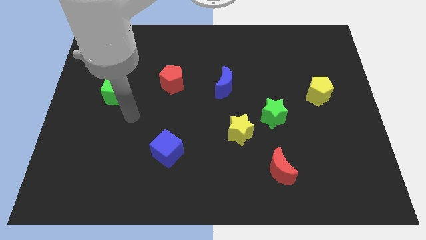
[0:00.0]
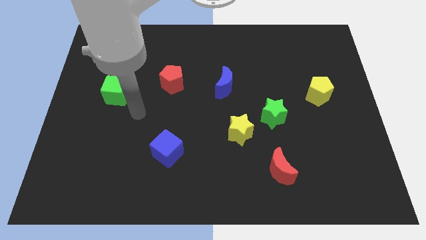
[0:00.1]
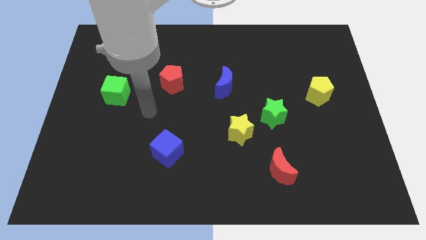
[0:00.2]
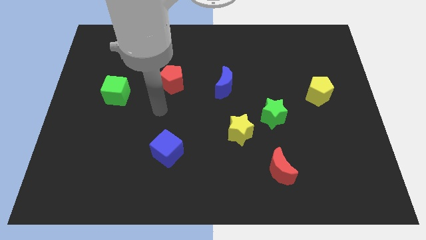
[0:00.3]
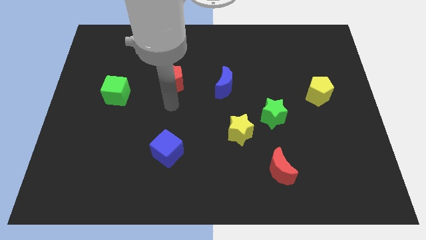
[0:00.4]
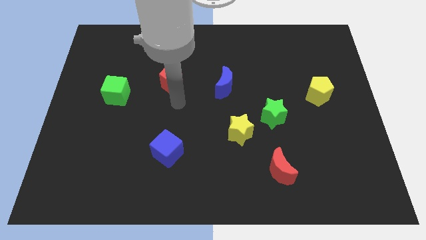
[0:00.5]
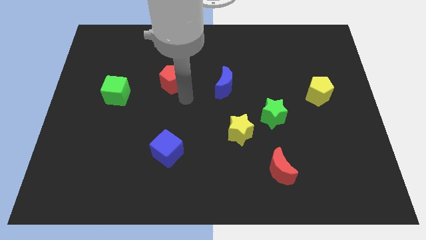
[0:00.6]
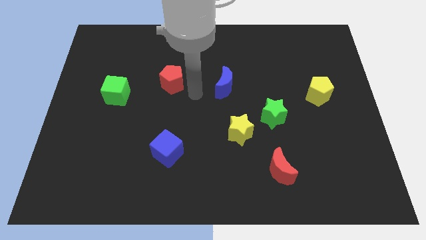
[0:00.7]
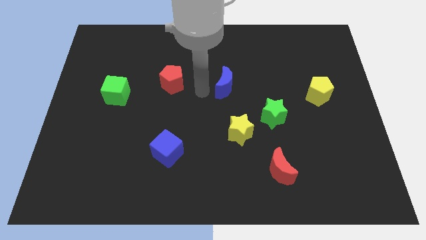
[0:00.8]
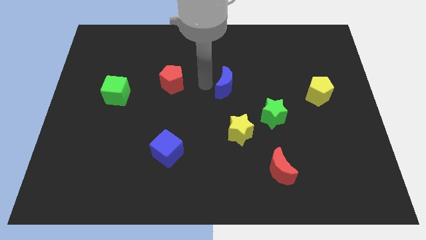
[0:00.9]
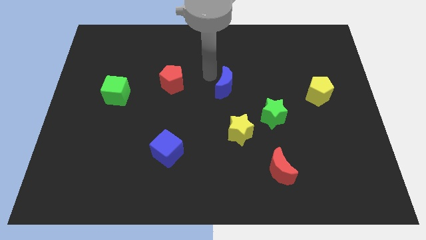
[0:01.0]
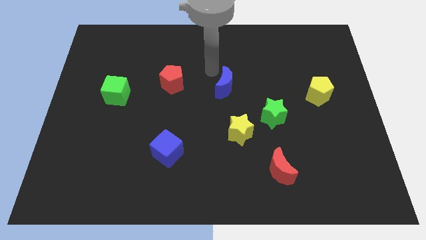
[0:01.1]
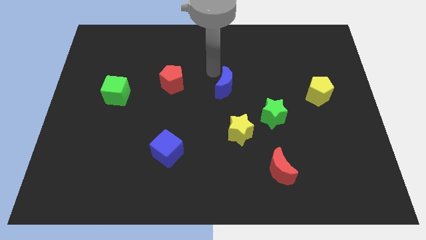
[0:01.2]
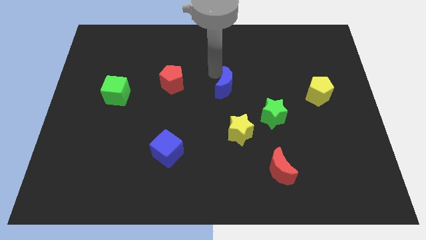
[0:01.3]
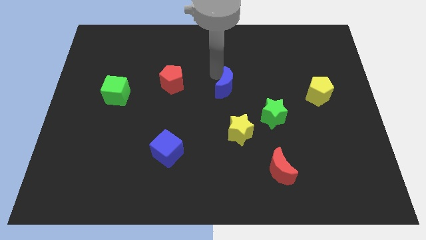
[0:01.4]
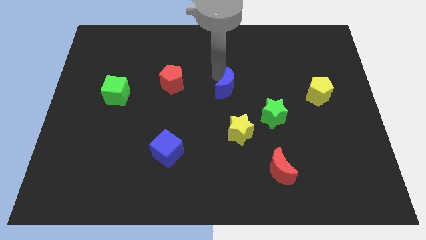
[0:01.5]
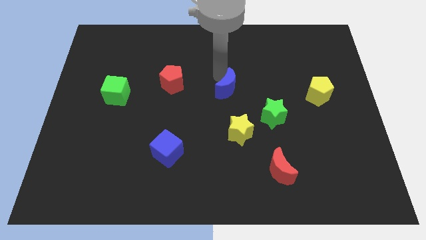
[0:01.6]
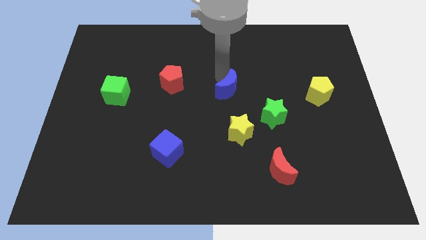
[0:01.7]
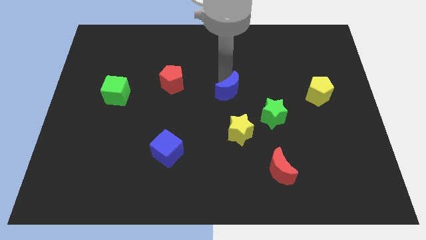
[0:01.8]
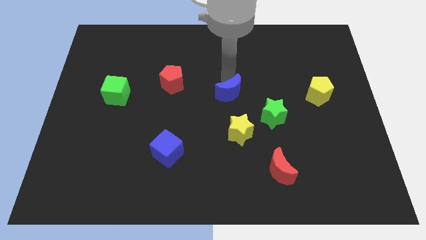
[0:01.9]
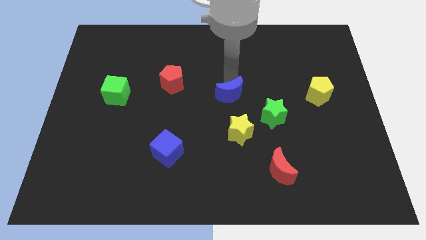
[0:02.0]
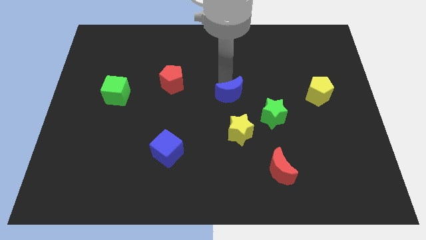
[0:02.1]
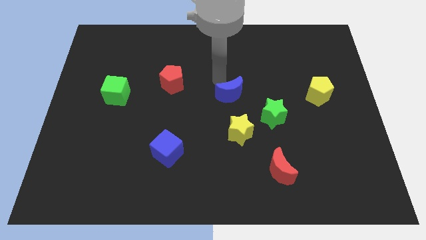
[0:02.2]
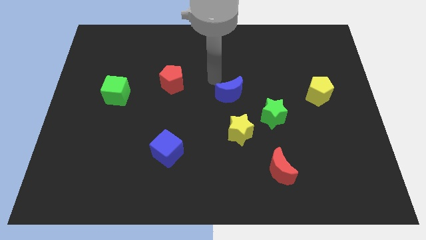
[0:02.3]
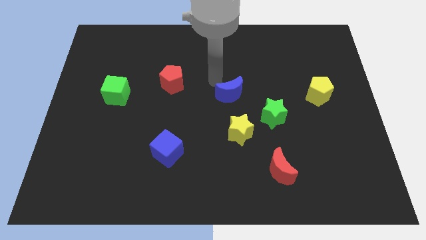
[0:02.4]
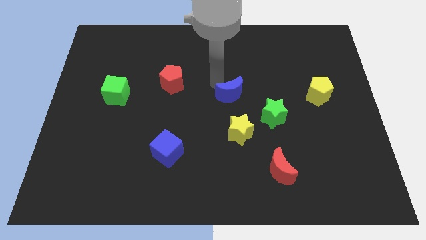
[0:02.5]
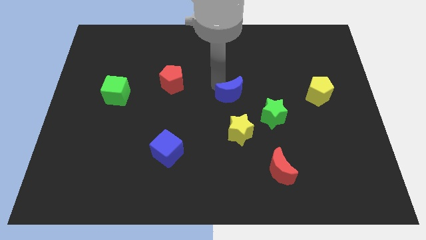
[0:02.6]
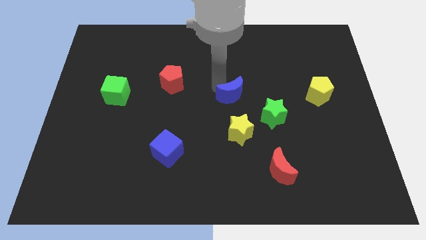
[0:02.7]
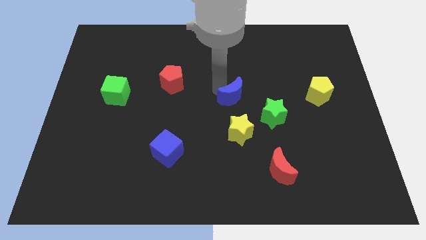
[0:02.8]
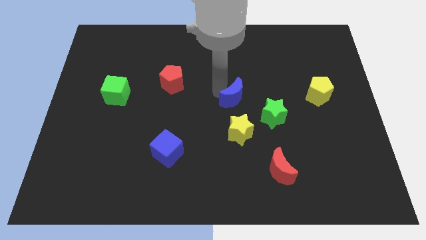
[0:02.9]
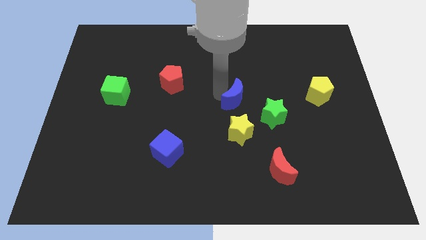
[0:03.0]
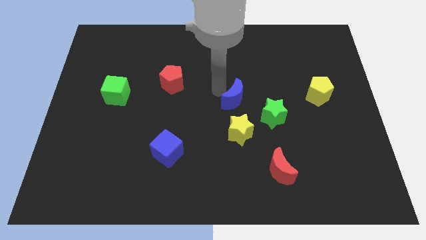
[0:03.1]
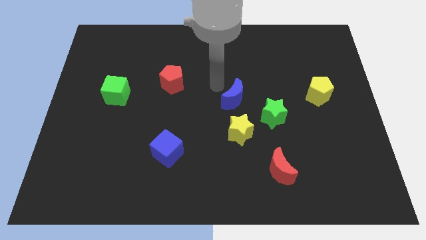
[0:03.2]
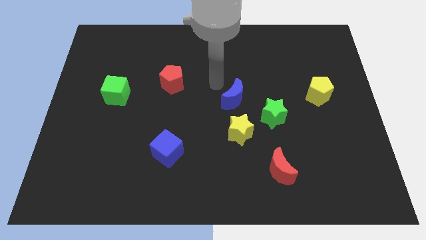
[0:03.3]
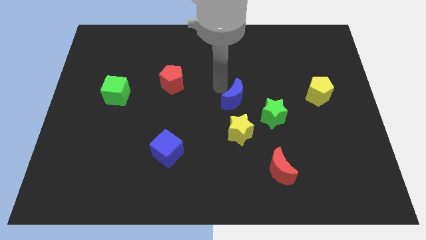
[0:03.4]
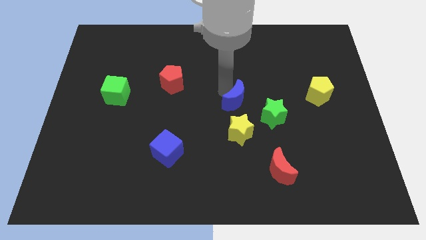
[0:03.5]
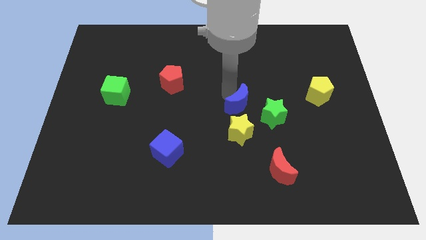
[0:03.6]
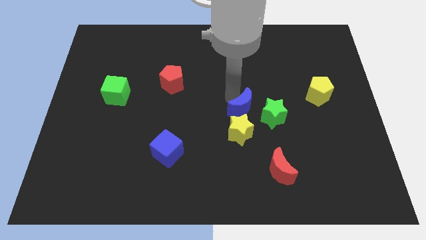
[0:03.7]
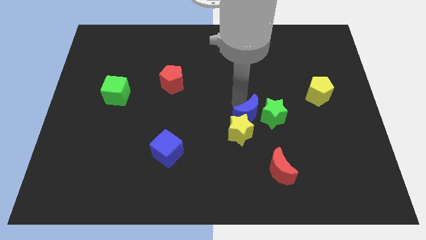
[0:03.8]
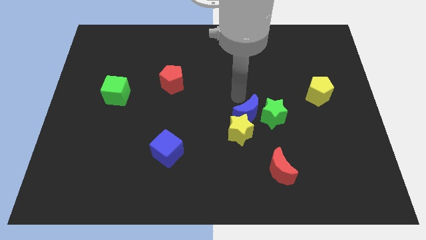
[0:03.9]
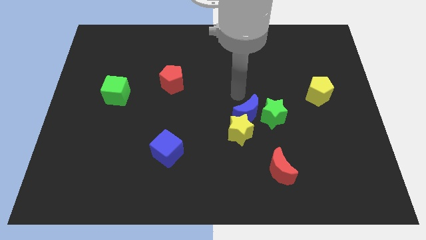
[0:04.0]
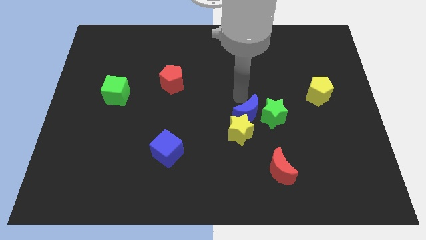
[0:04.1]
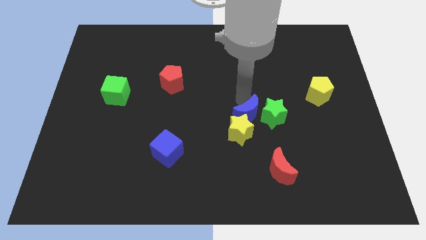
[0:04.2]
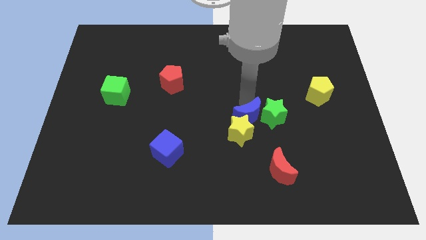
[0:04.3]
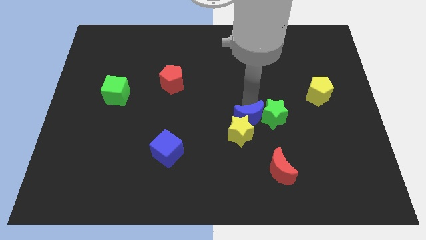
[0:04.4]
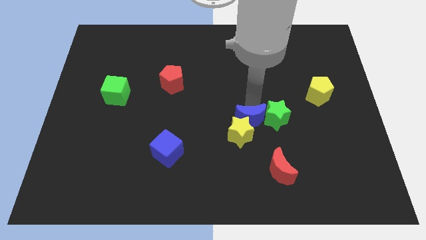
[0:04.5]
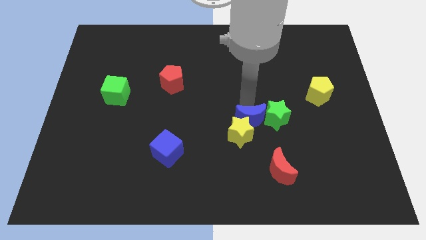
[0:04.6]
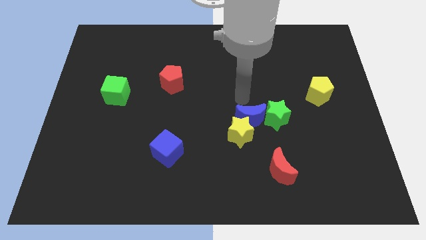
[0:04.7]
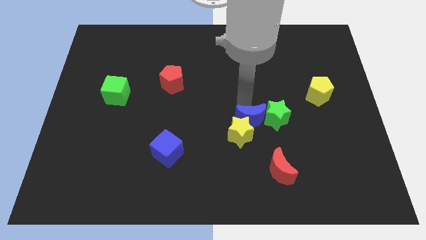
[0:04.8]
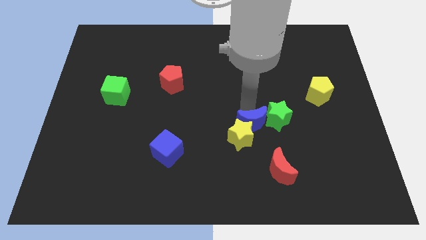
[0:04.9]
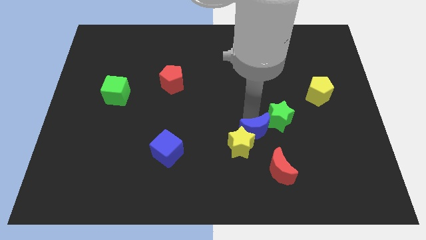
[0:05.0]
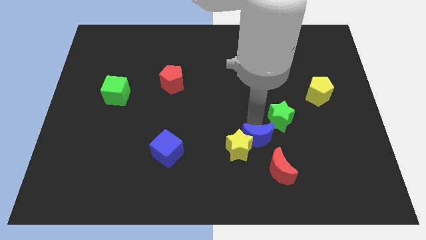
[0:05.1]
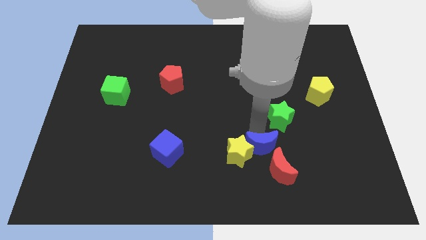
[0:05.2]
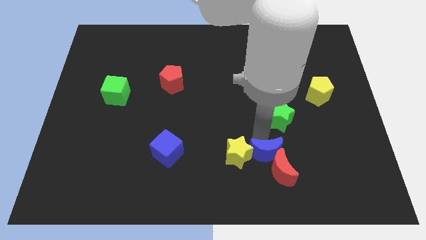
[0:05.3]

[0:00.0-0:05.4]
move the blue moon to the bottom right side of the yellow star

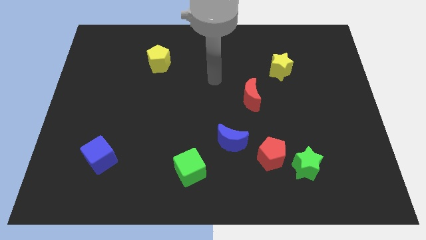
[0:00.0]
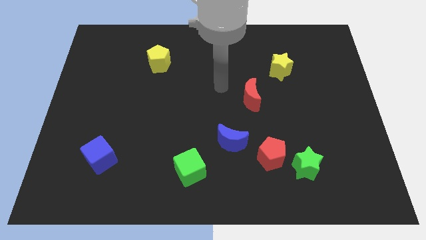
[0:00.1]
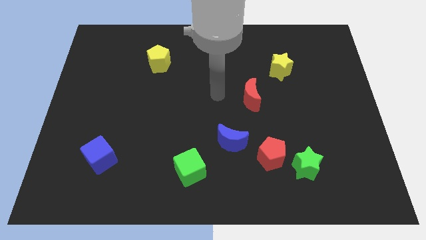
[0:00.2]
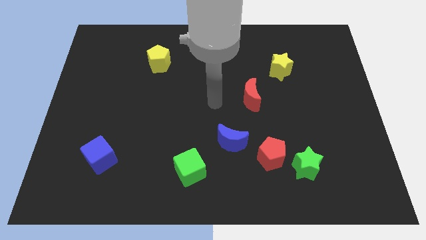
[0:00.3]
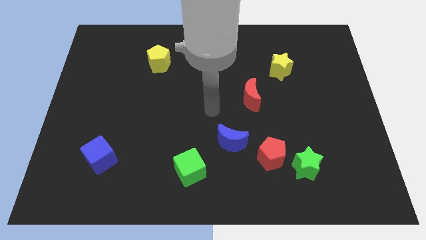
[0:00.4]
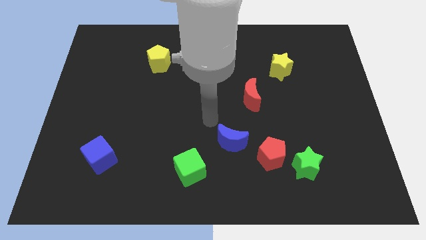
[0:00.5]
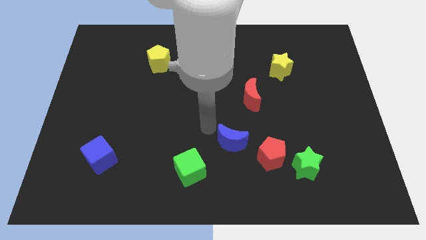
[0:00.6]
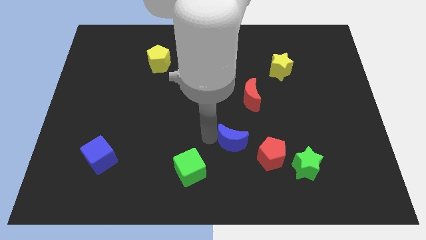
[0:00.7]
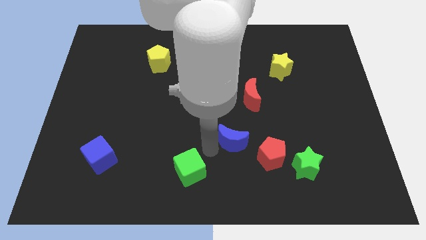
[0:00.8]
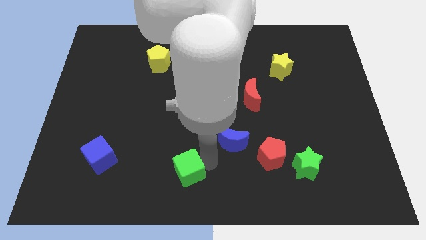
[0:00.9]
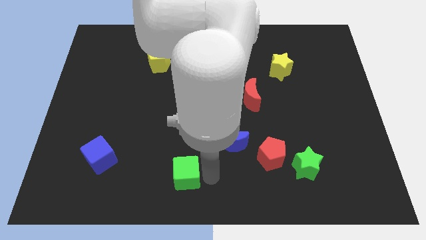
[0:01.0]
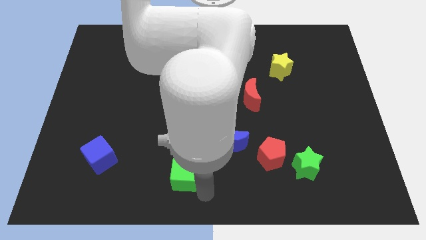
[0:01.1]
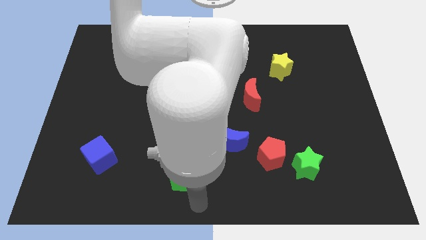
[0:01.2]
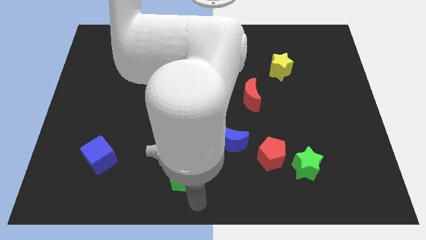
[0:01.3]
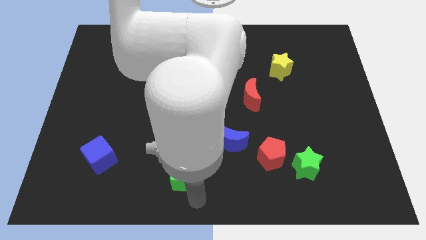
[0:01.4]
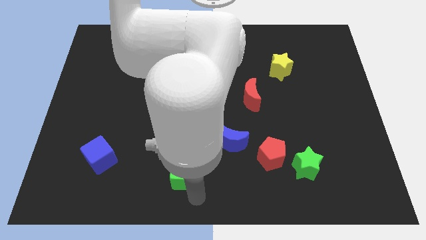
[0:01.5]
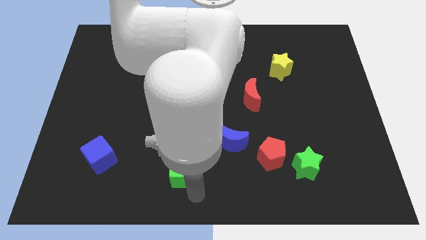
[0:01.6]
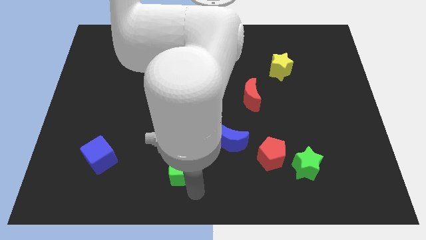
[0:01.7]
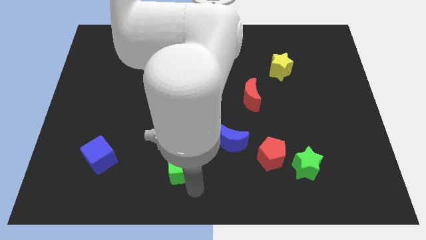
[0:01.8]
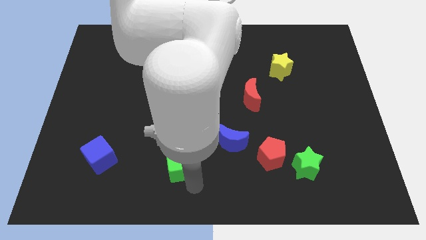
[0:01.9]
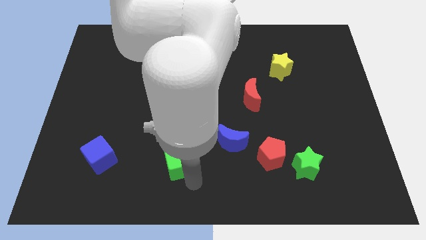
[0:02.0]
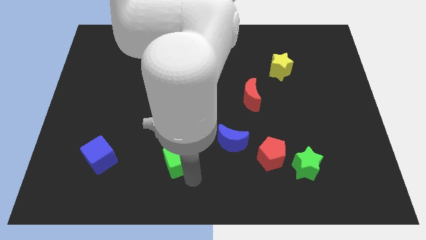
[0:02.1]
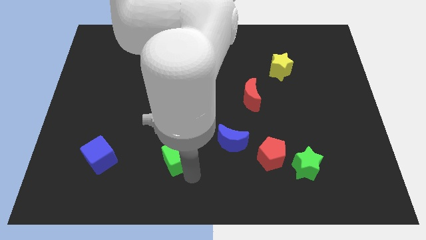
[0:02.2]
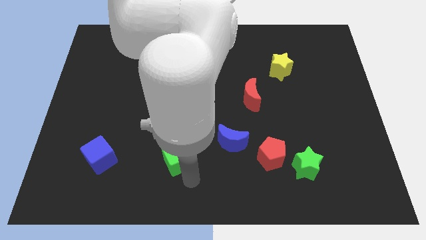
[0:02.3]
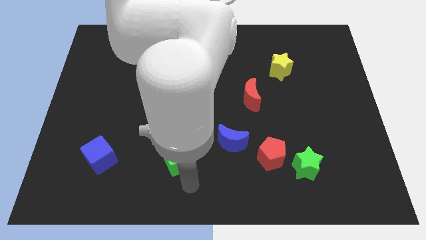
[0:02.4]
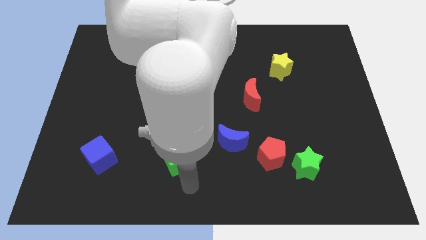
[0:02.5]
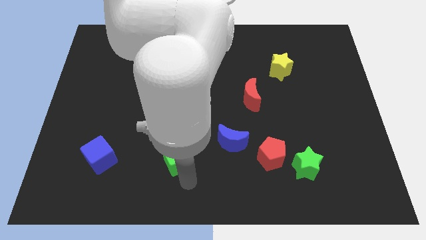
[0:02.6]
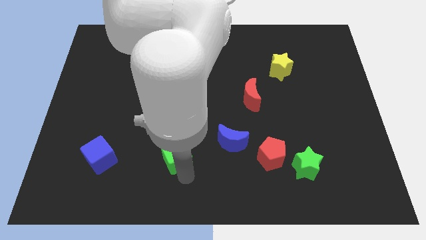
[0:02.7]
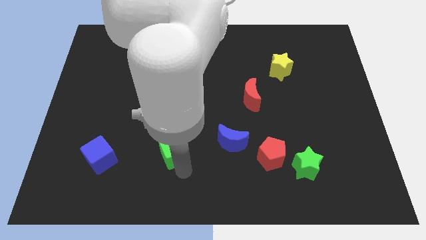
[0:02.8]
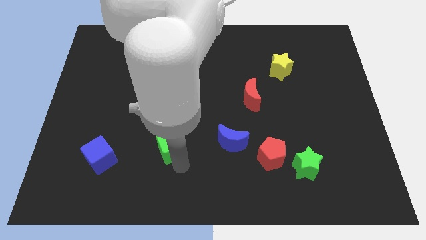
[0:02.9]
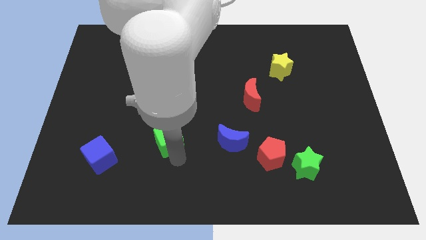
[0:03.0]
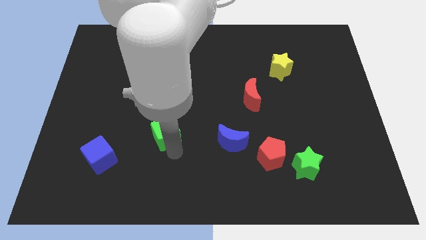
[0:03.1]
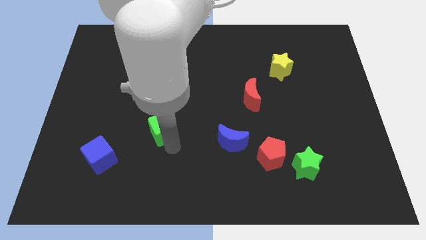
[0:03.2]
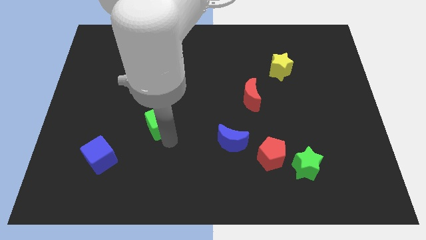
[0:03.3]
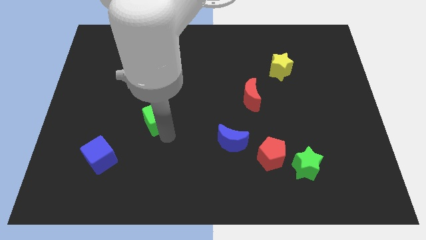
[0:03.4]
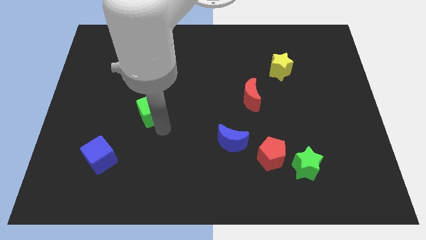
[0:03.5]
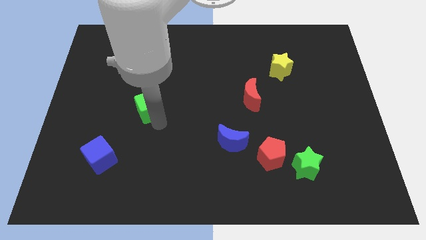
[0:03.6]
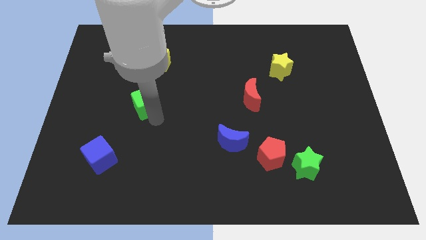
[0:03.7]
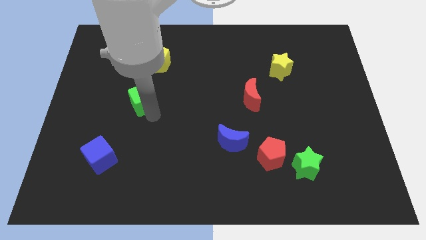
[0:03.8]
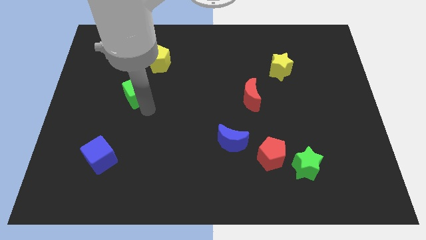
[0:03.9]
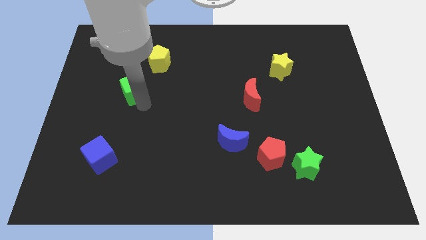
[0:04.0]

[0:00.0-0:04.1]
put the green cube to the bottom left of the yellow pentagon
